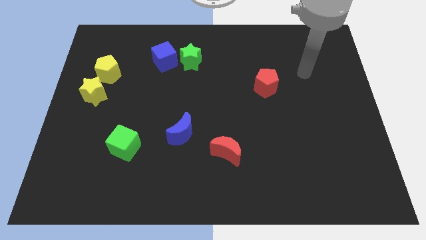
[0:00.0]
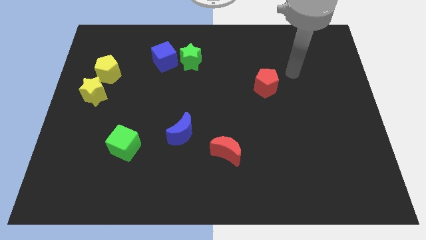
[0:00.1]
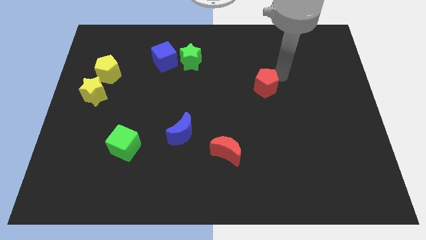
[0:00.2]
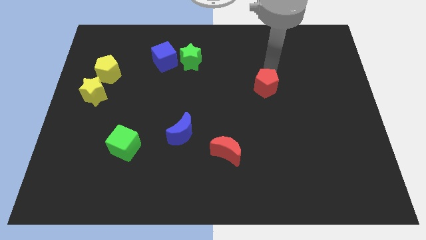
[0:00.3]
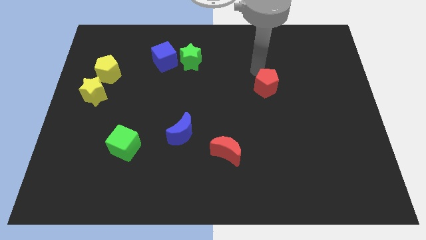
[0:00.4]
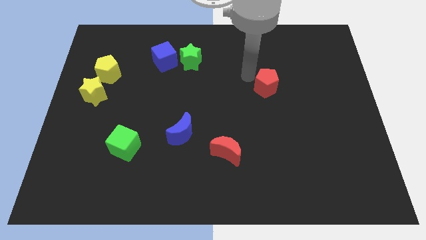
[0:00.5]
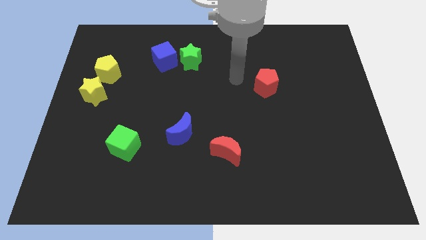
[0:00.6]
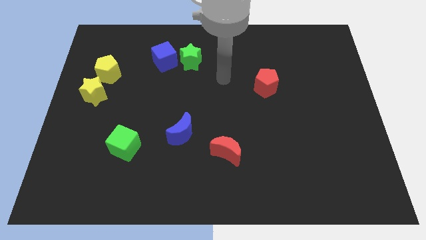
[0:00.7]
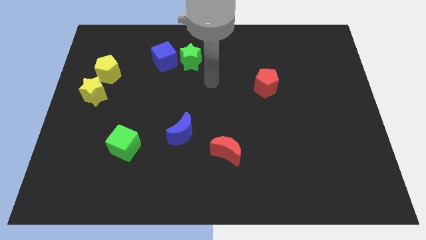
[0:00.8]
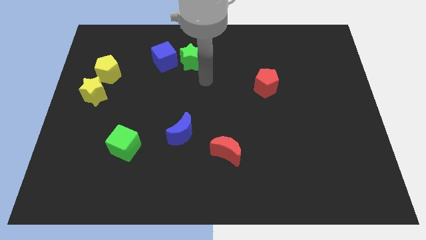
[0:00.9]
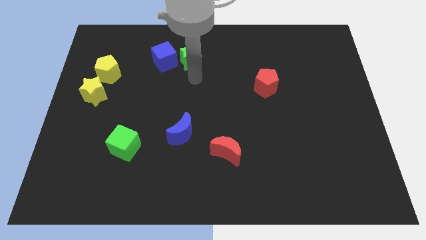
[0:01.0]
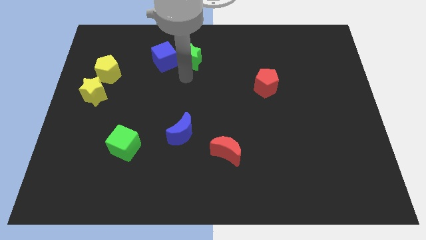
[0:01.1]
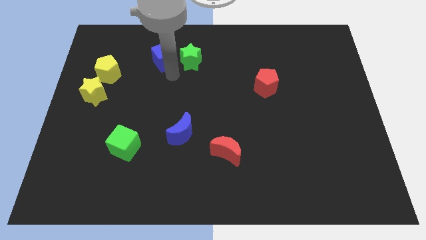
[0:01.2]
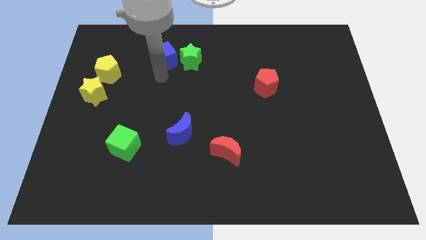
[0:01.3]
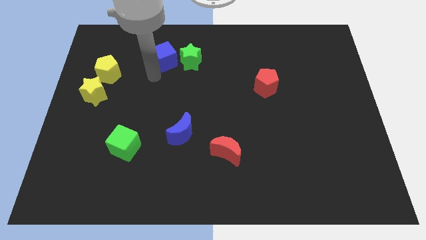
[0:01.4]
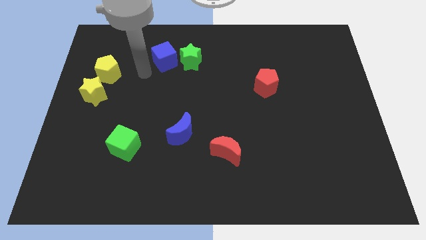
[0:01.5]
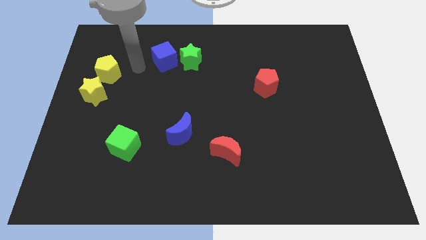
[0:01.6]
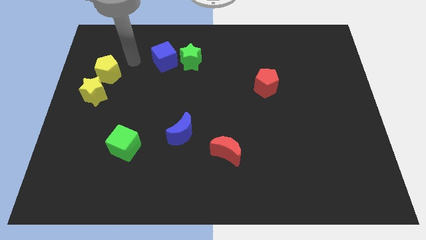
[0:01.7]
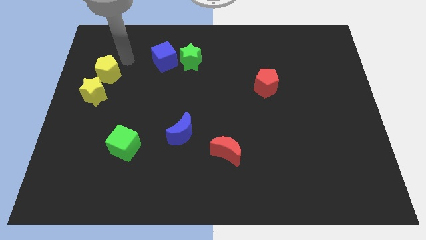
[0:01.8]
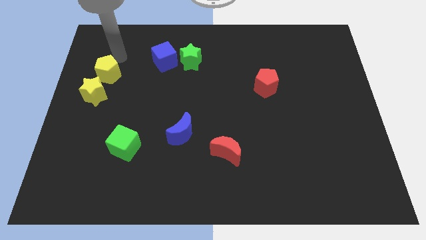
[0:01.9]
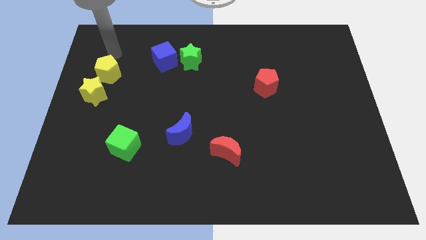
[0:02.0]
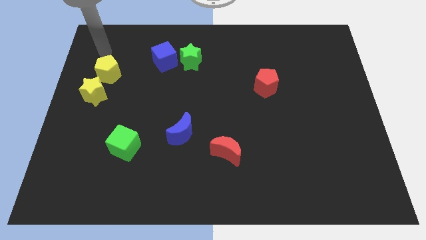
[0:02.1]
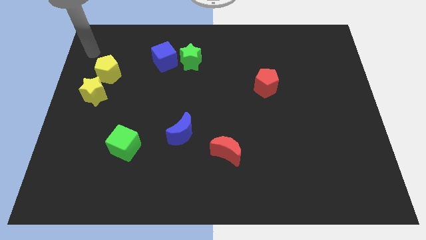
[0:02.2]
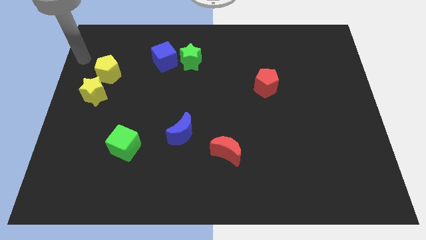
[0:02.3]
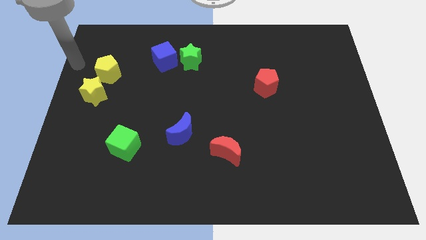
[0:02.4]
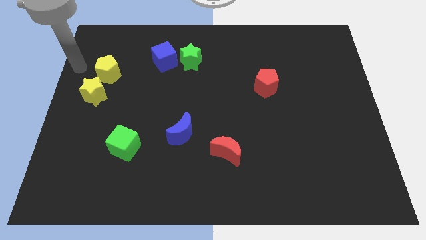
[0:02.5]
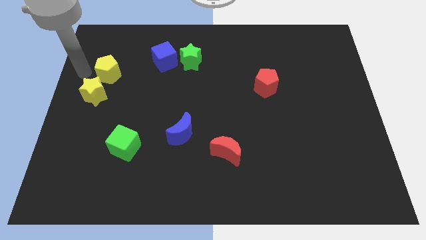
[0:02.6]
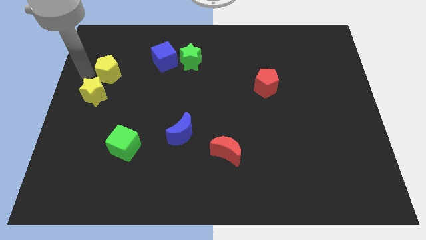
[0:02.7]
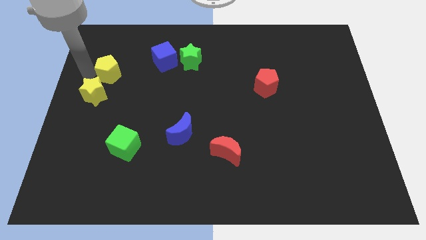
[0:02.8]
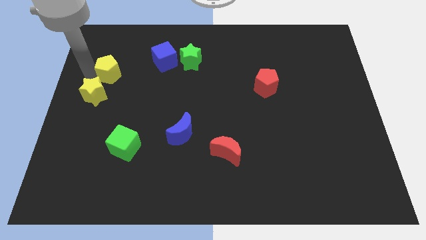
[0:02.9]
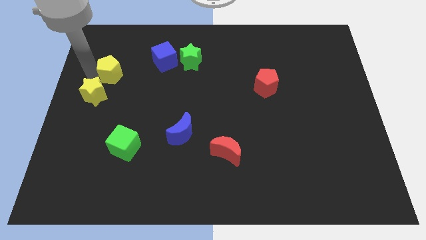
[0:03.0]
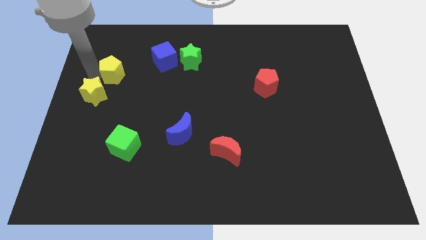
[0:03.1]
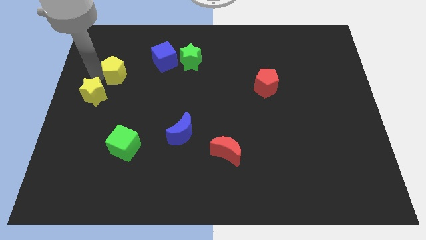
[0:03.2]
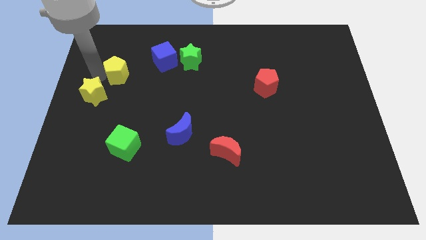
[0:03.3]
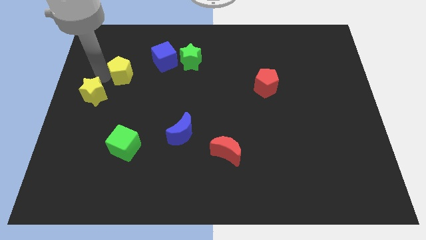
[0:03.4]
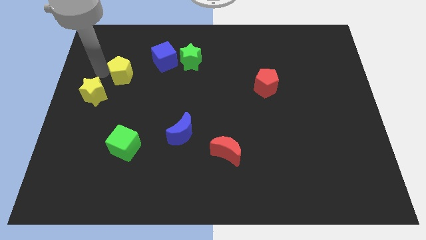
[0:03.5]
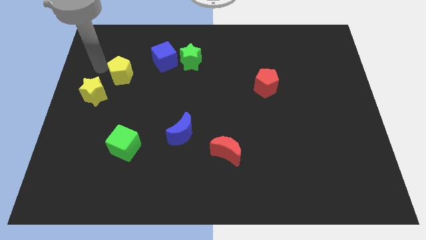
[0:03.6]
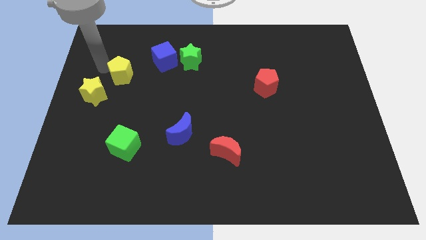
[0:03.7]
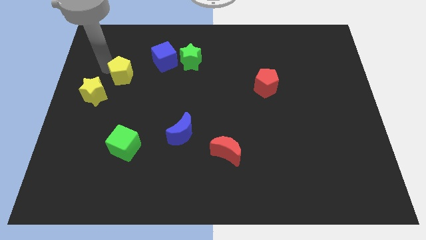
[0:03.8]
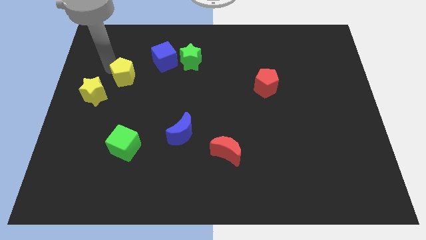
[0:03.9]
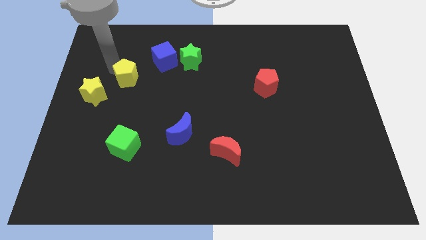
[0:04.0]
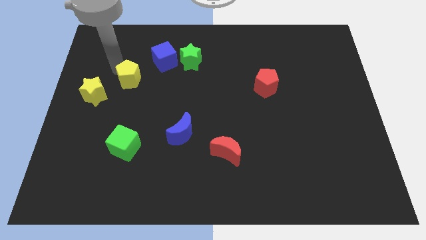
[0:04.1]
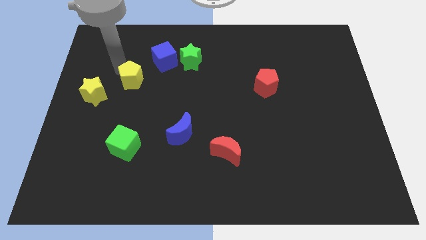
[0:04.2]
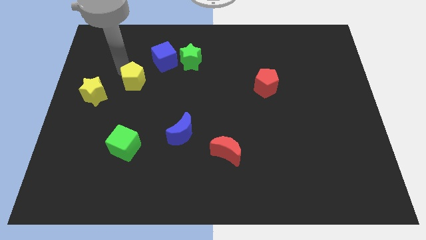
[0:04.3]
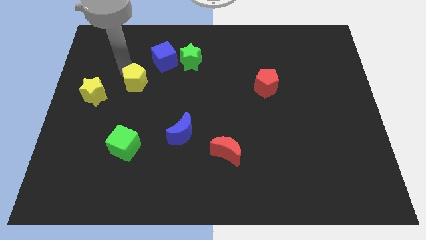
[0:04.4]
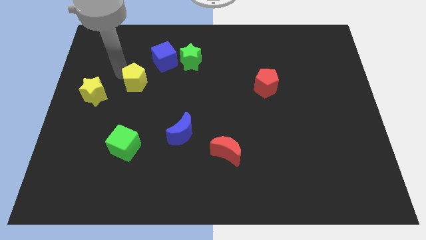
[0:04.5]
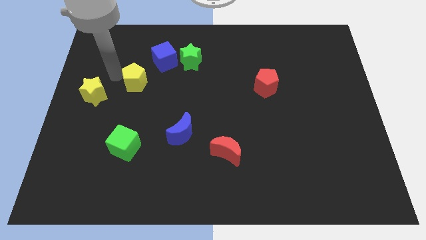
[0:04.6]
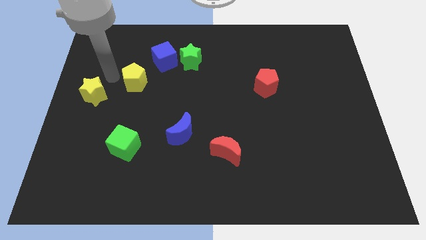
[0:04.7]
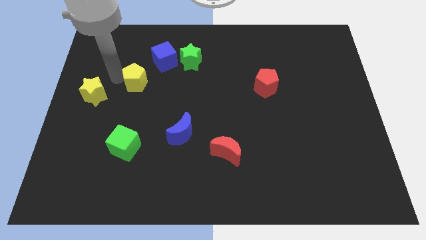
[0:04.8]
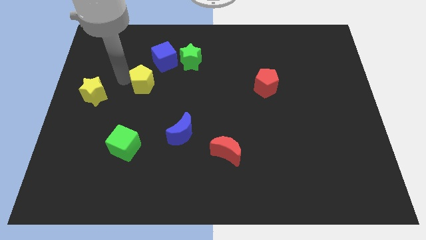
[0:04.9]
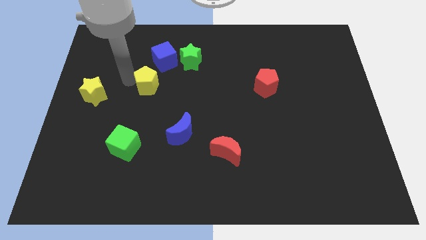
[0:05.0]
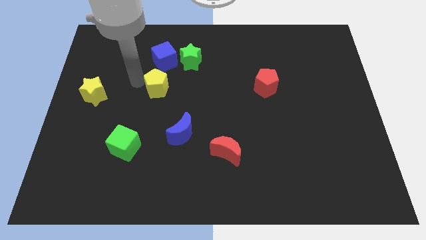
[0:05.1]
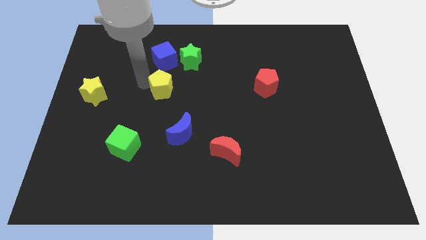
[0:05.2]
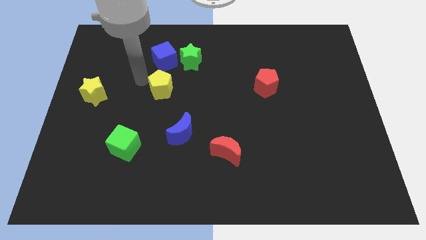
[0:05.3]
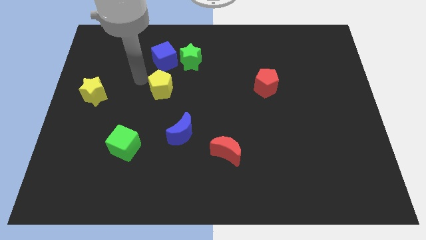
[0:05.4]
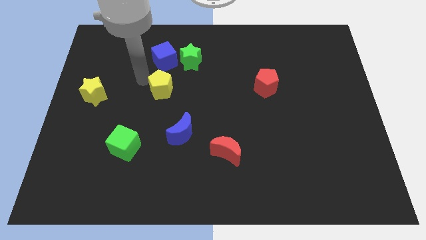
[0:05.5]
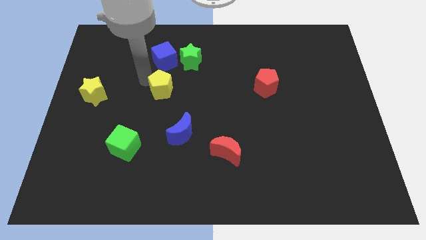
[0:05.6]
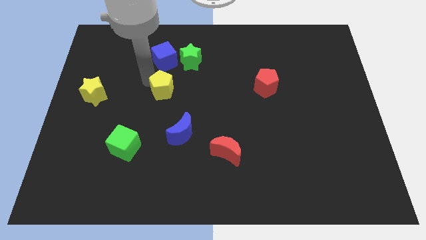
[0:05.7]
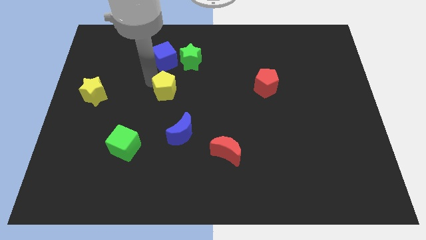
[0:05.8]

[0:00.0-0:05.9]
move the yellow pentagon above the blue moon

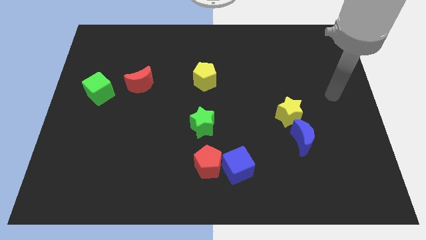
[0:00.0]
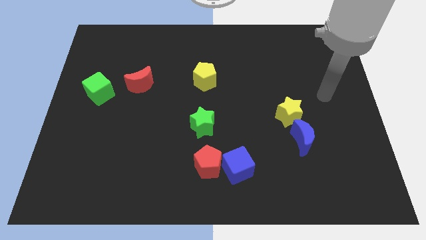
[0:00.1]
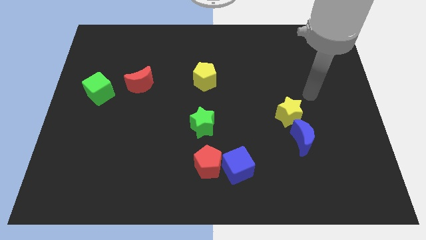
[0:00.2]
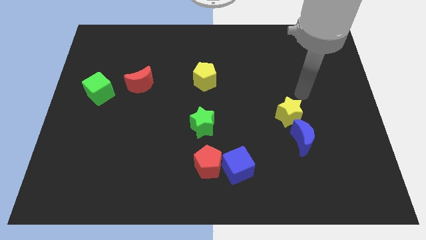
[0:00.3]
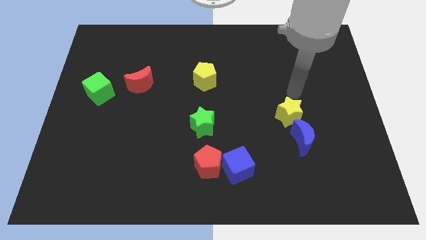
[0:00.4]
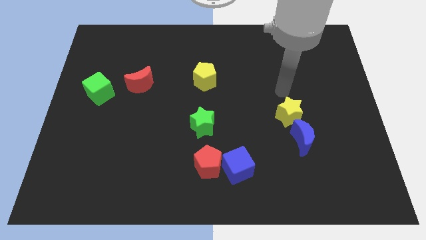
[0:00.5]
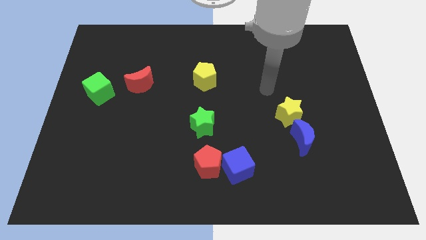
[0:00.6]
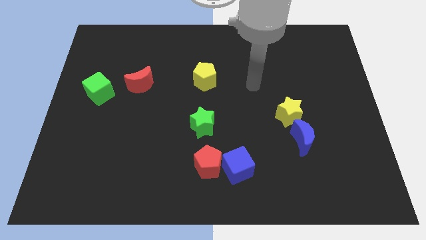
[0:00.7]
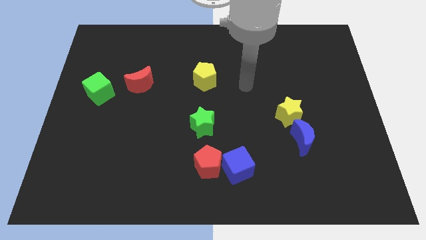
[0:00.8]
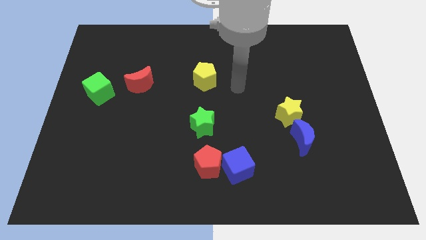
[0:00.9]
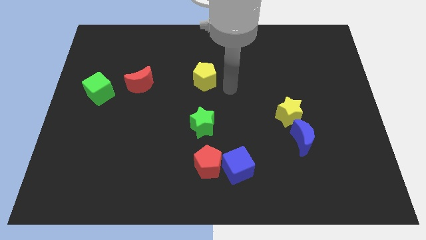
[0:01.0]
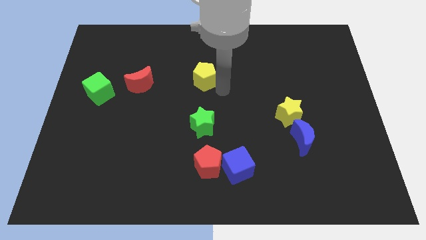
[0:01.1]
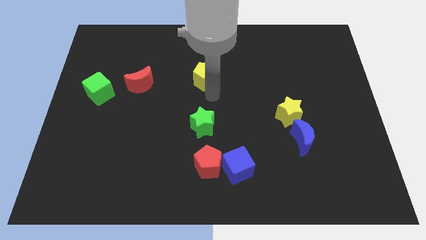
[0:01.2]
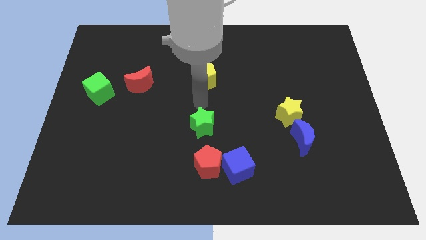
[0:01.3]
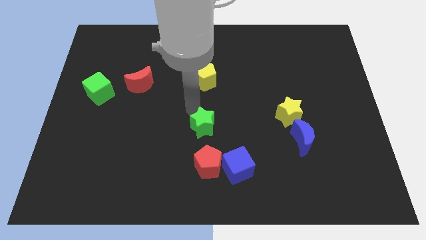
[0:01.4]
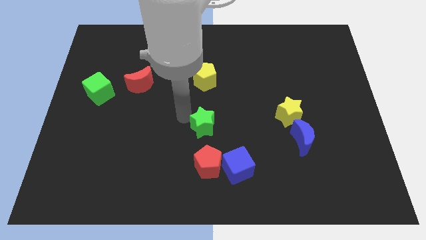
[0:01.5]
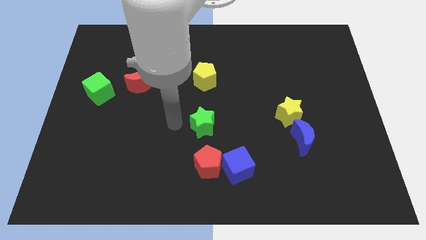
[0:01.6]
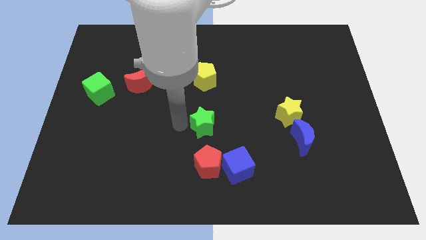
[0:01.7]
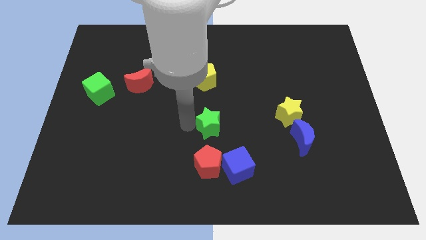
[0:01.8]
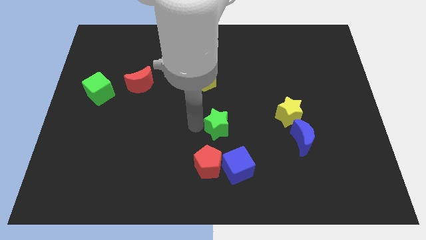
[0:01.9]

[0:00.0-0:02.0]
move the green star above the blue cube
